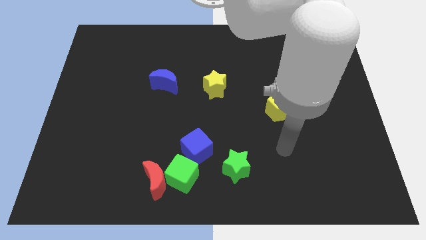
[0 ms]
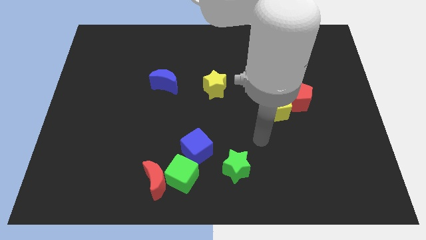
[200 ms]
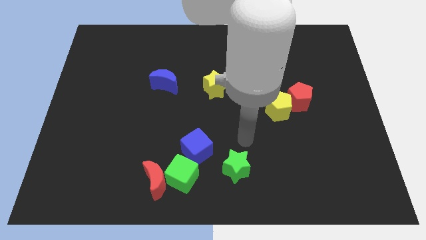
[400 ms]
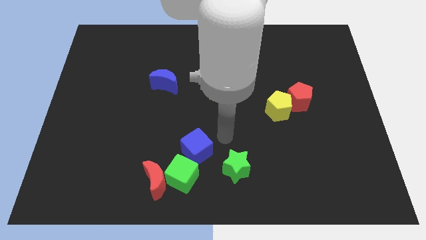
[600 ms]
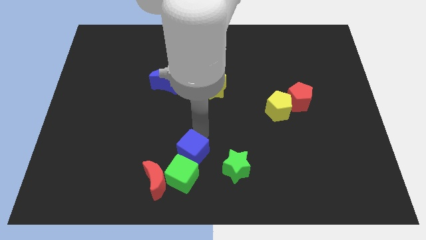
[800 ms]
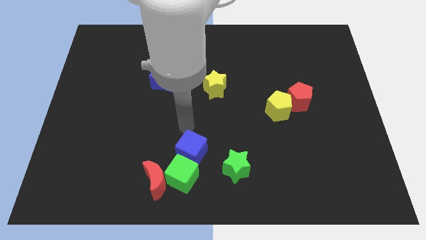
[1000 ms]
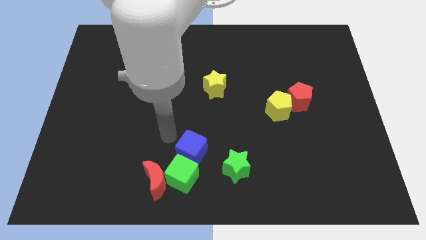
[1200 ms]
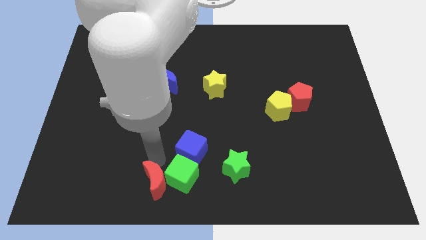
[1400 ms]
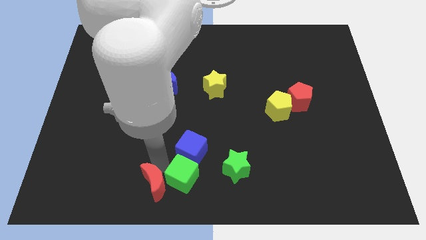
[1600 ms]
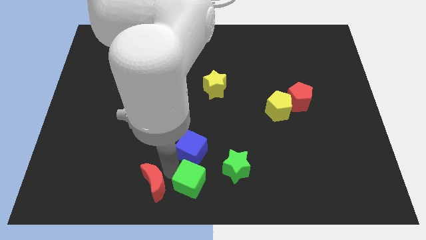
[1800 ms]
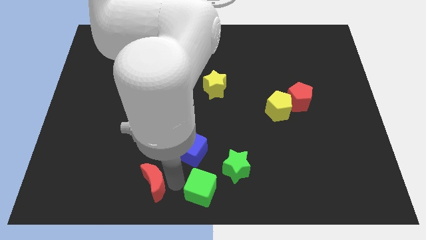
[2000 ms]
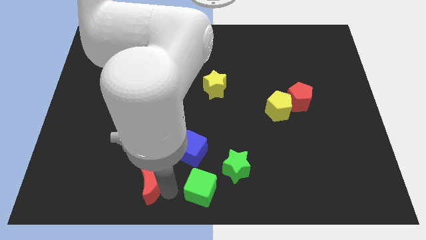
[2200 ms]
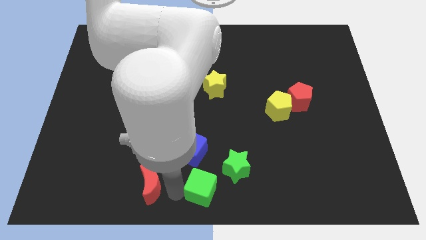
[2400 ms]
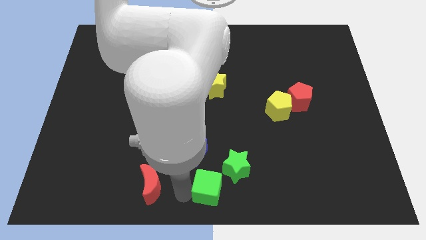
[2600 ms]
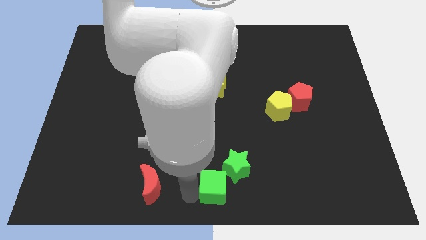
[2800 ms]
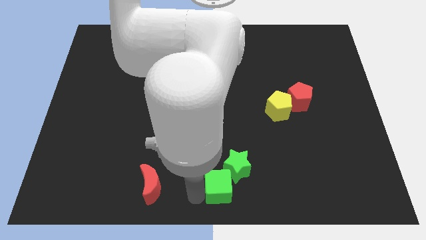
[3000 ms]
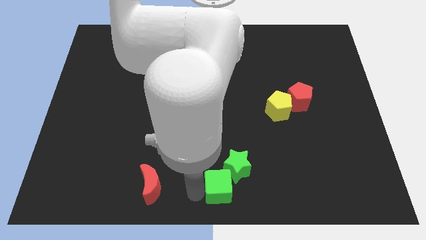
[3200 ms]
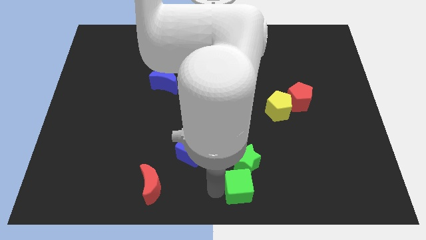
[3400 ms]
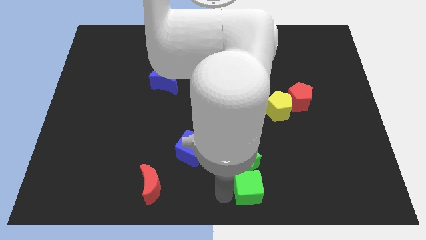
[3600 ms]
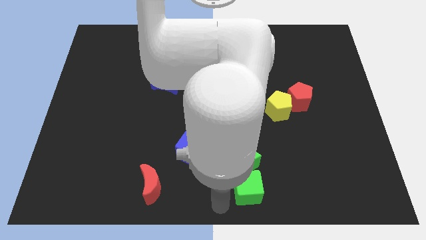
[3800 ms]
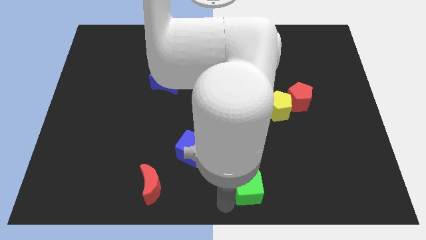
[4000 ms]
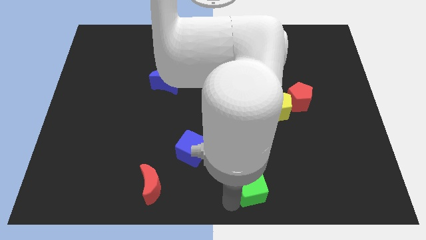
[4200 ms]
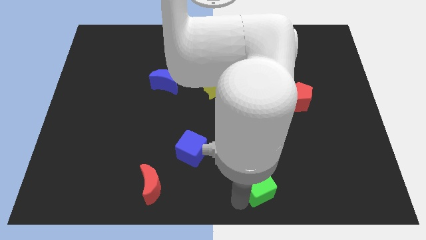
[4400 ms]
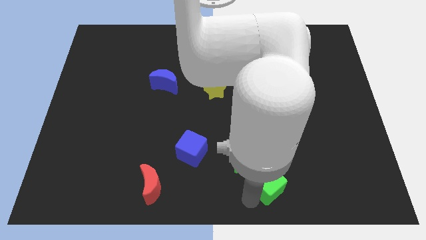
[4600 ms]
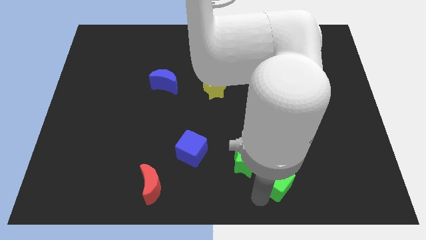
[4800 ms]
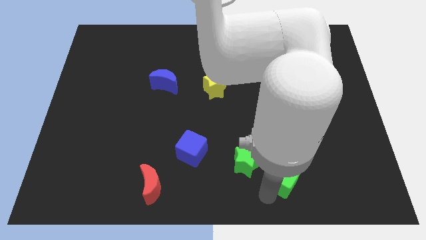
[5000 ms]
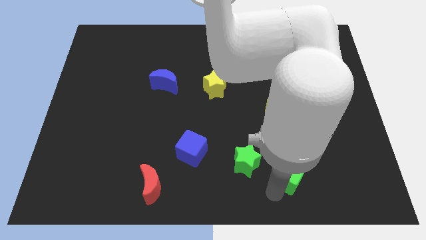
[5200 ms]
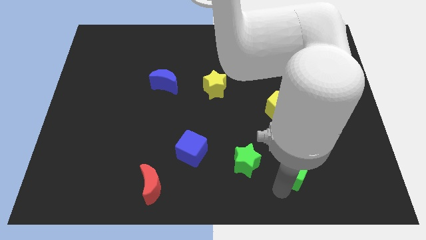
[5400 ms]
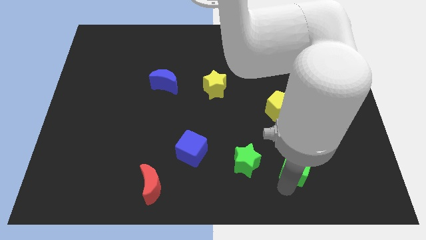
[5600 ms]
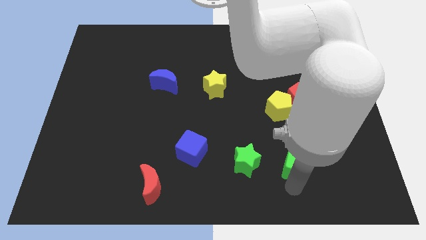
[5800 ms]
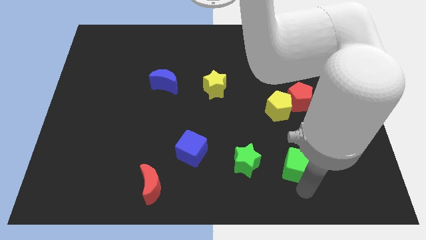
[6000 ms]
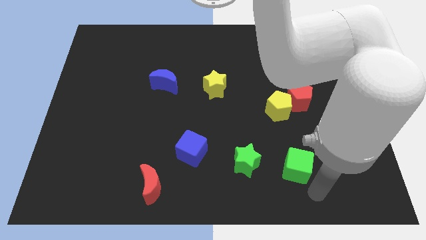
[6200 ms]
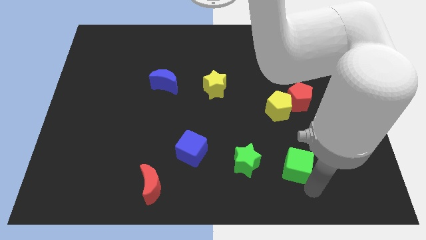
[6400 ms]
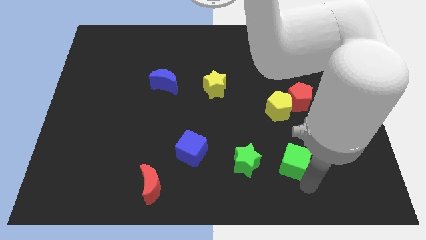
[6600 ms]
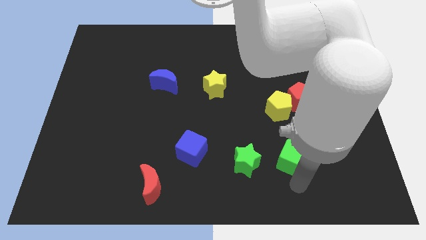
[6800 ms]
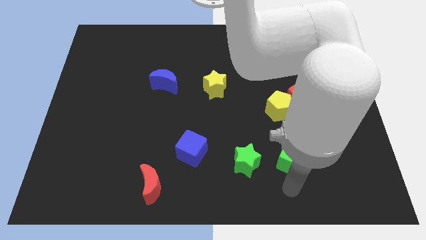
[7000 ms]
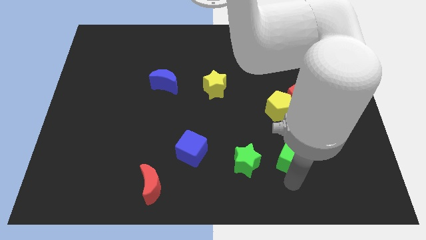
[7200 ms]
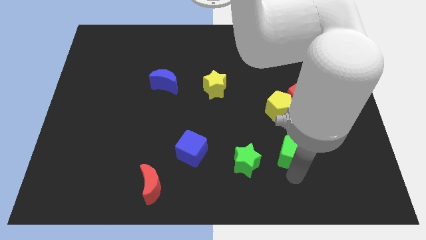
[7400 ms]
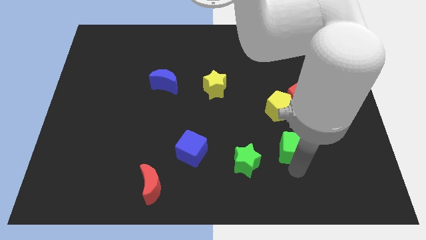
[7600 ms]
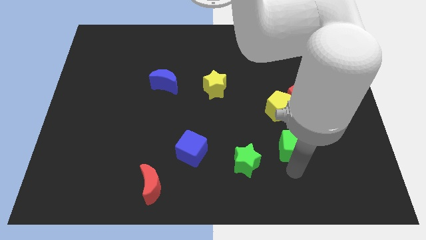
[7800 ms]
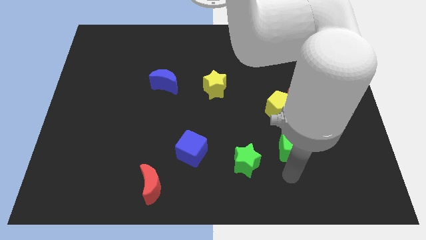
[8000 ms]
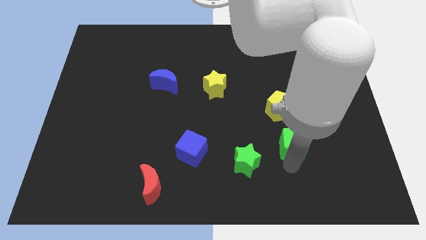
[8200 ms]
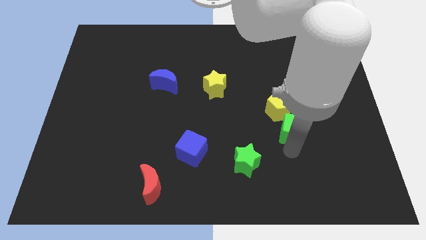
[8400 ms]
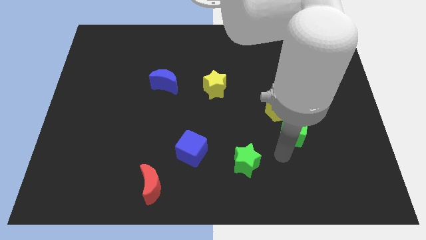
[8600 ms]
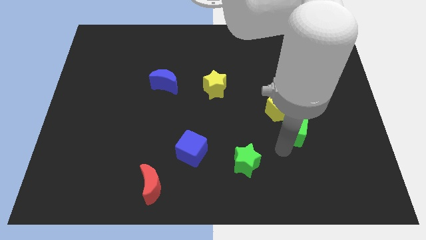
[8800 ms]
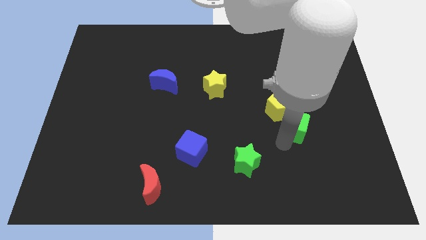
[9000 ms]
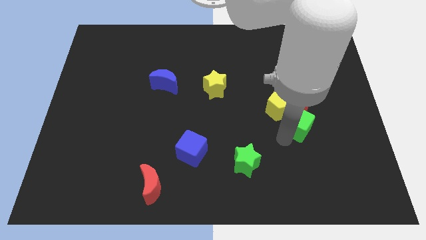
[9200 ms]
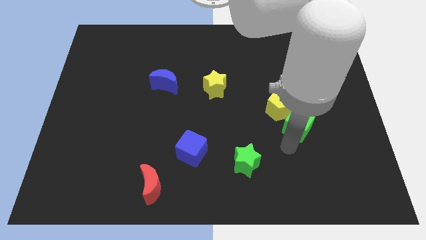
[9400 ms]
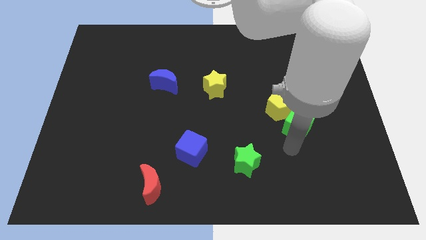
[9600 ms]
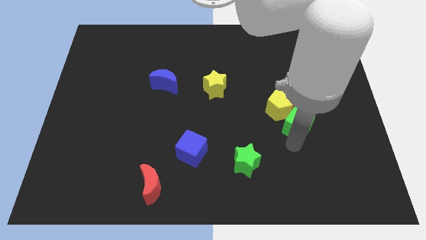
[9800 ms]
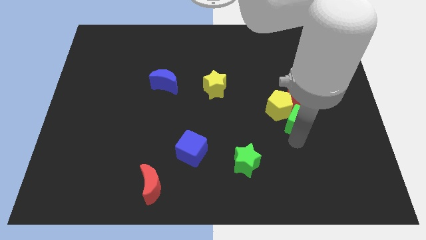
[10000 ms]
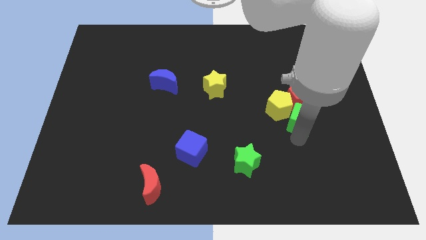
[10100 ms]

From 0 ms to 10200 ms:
move the green cube next to the red pentagon

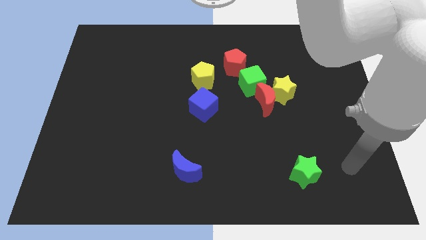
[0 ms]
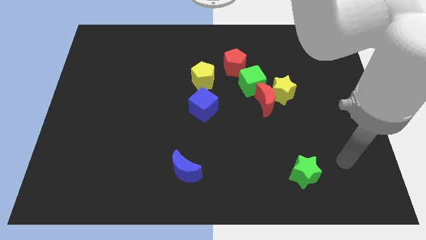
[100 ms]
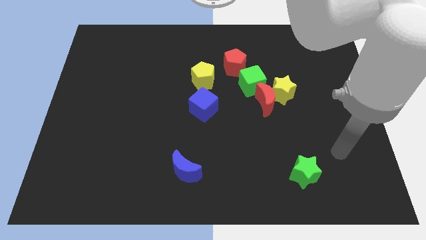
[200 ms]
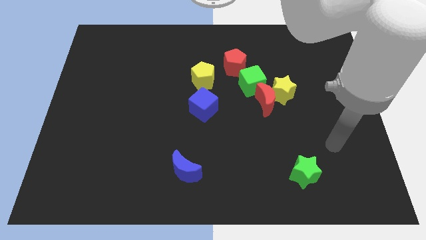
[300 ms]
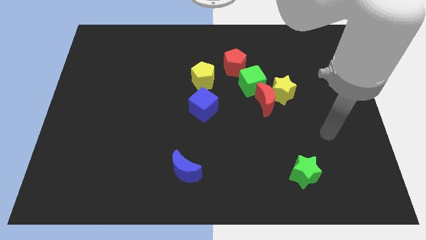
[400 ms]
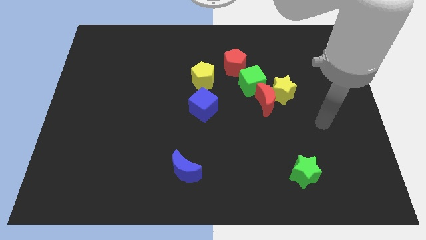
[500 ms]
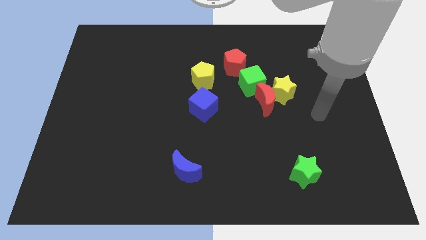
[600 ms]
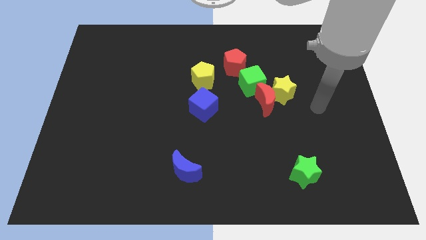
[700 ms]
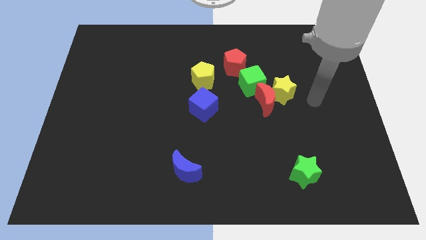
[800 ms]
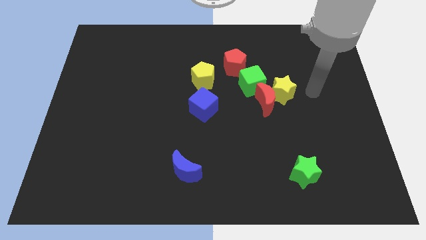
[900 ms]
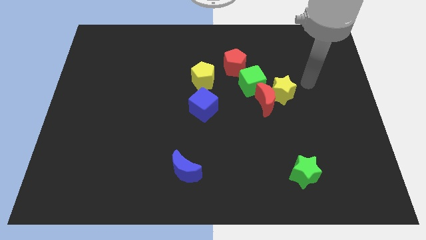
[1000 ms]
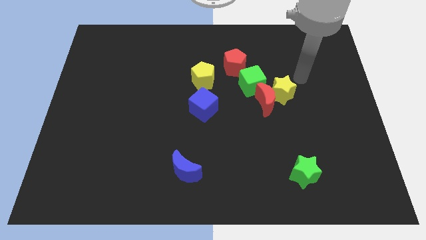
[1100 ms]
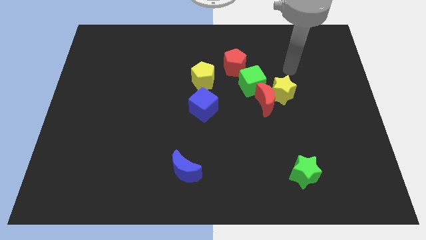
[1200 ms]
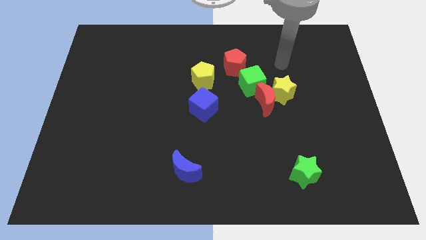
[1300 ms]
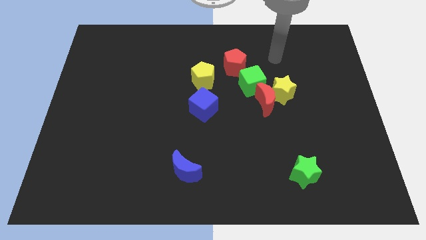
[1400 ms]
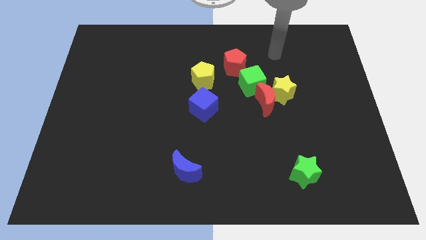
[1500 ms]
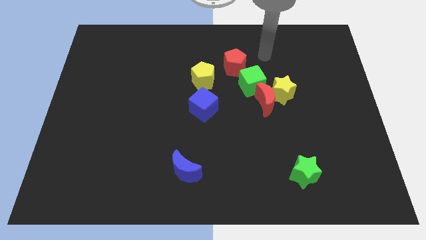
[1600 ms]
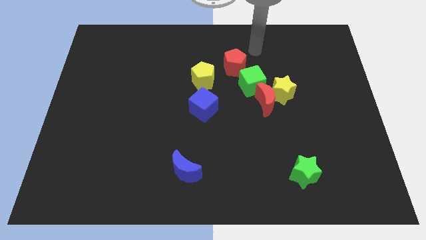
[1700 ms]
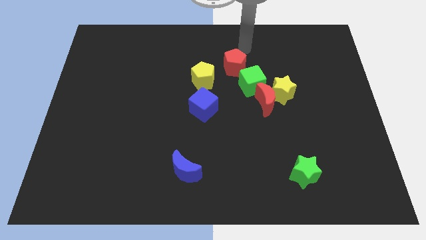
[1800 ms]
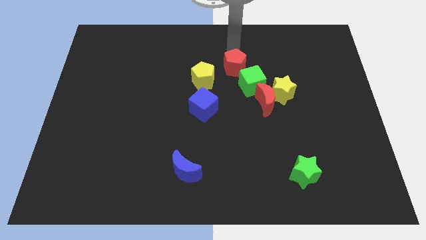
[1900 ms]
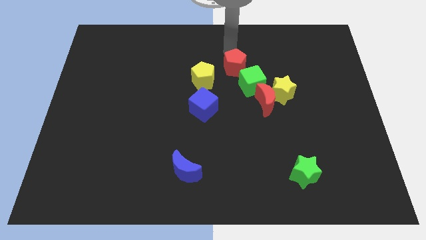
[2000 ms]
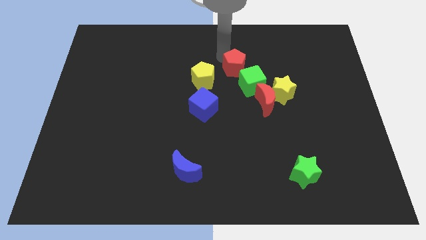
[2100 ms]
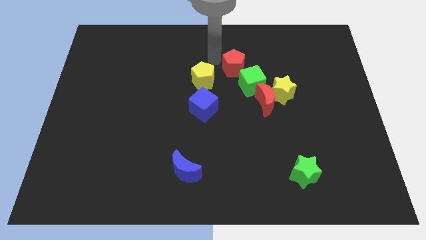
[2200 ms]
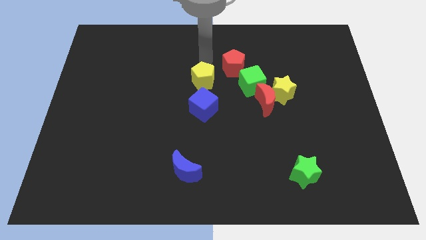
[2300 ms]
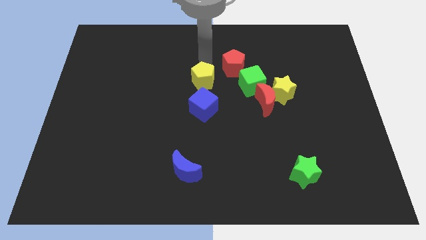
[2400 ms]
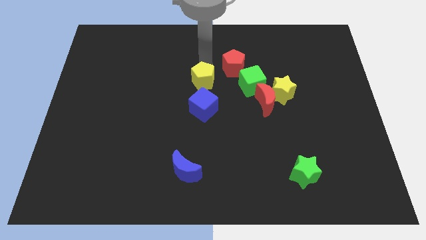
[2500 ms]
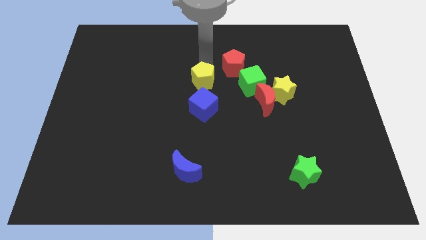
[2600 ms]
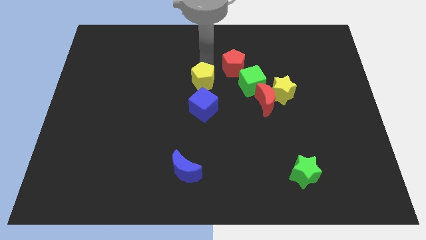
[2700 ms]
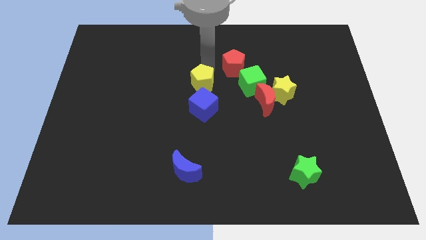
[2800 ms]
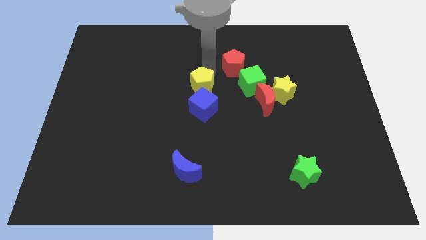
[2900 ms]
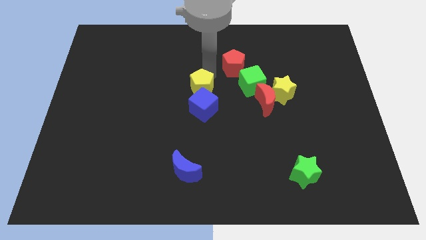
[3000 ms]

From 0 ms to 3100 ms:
put the yellow pentagon next to the blue cube
